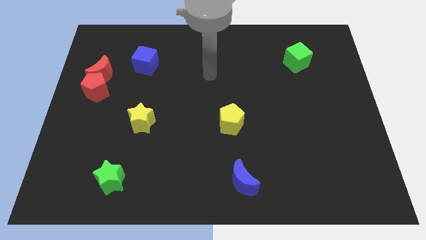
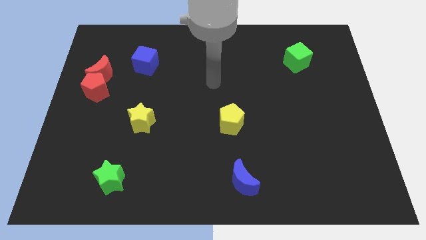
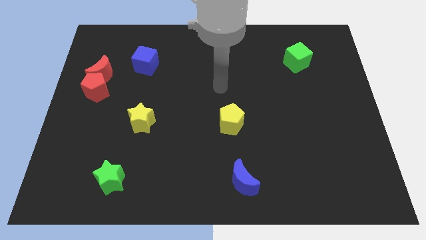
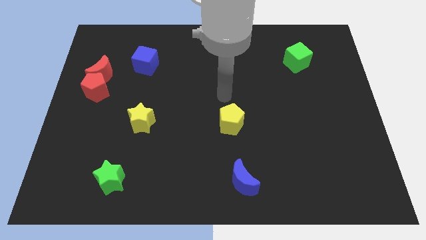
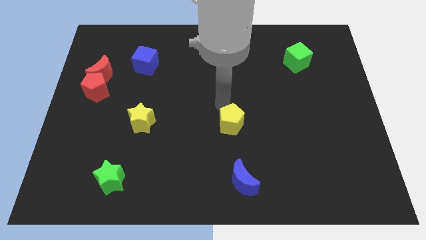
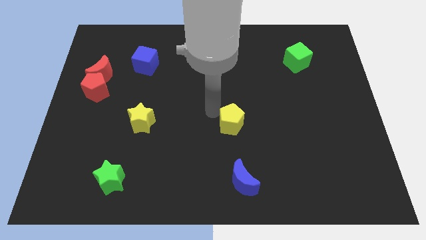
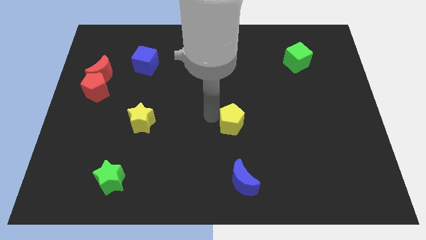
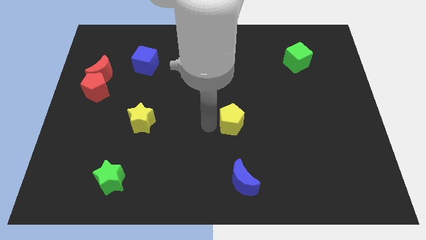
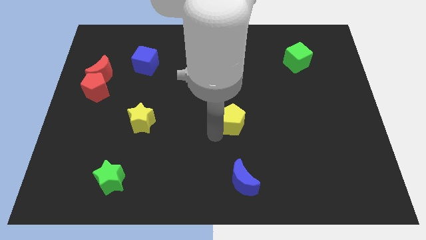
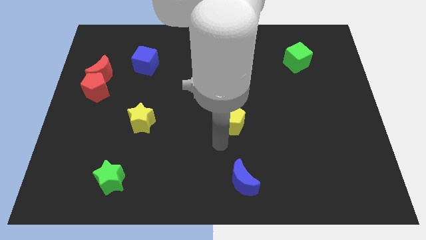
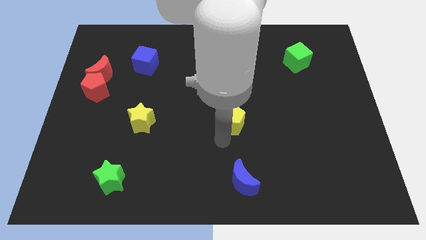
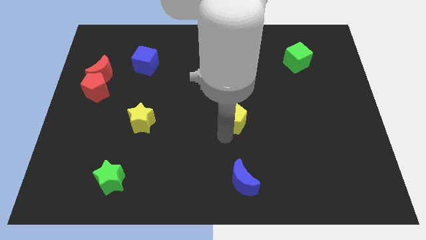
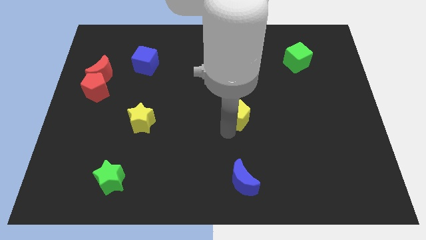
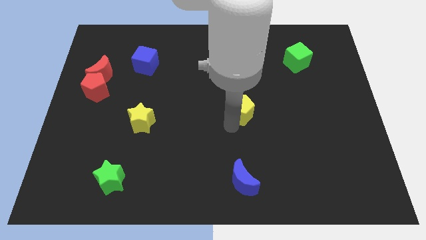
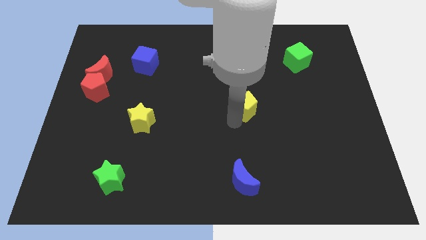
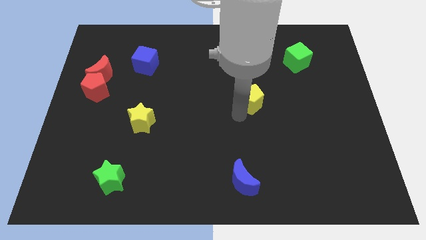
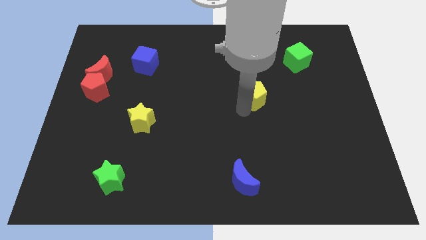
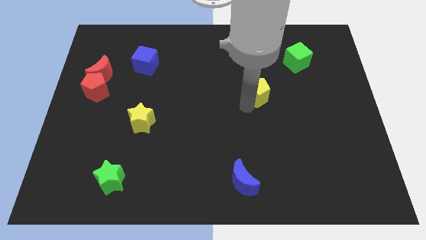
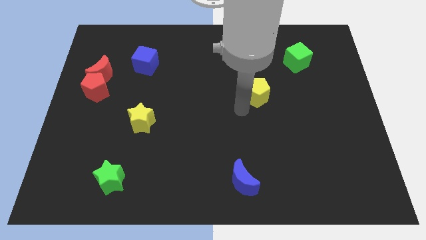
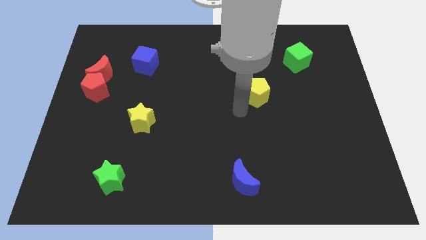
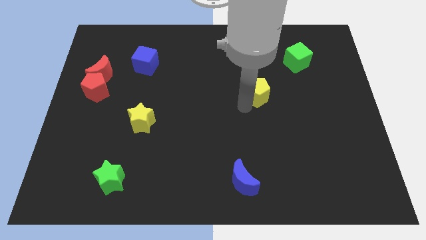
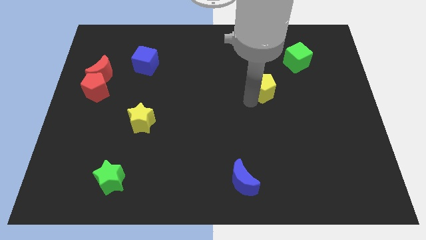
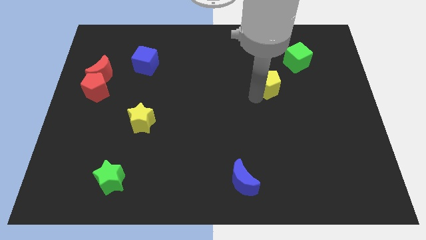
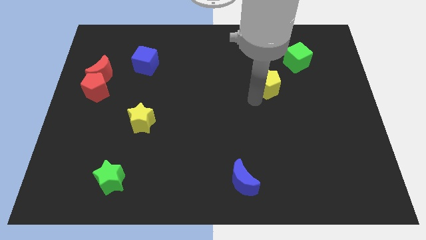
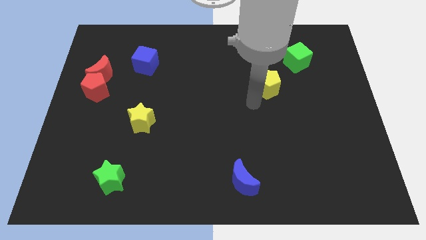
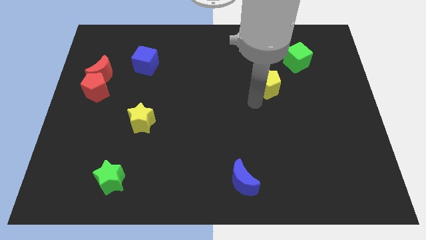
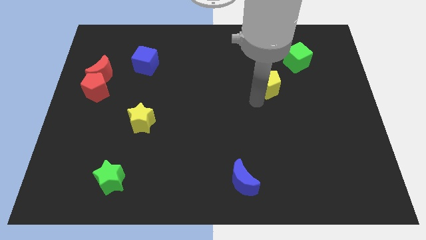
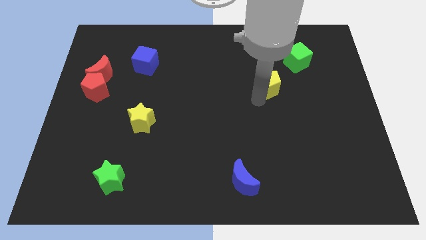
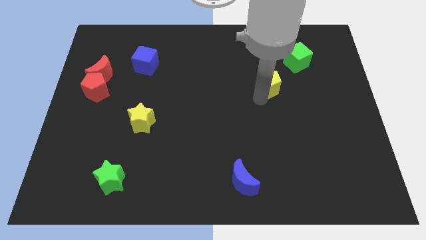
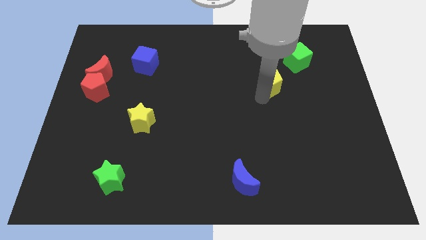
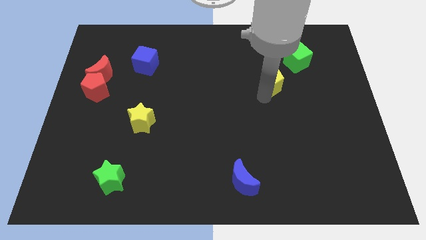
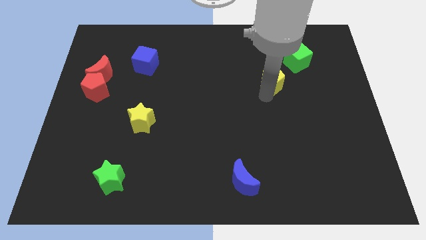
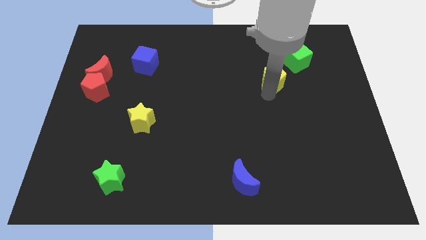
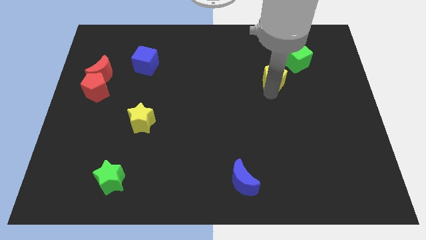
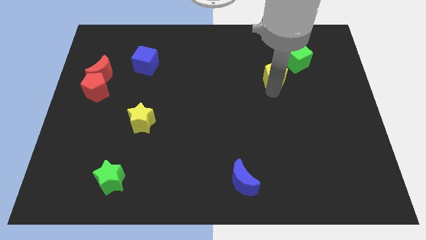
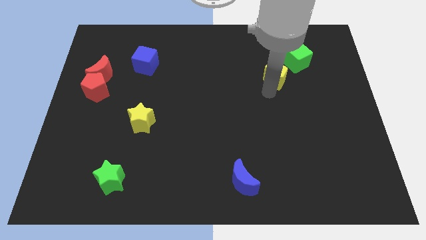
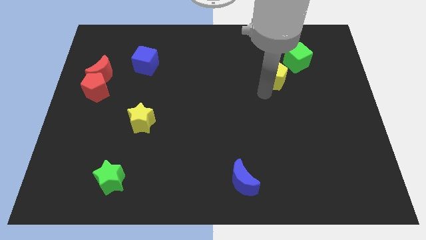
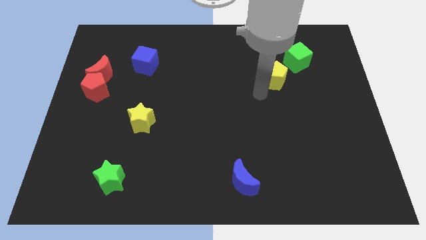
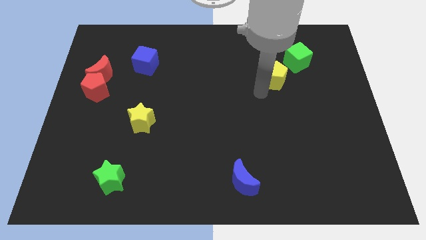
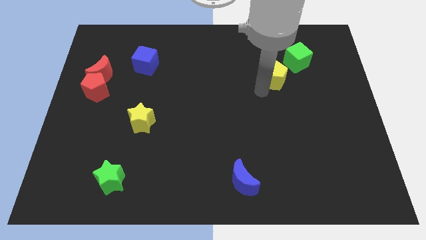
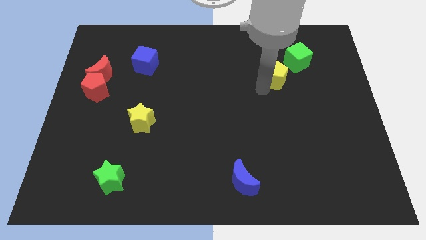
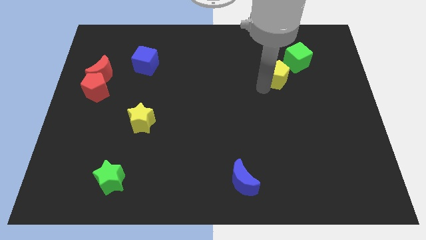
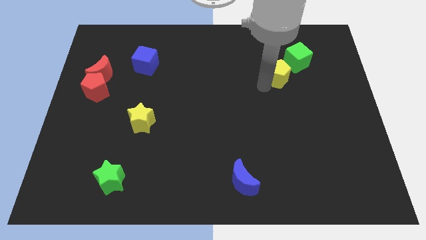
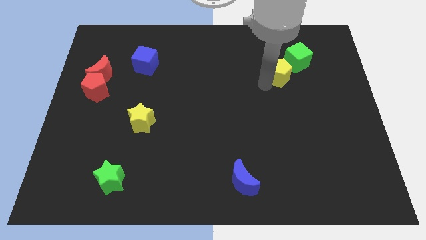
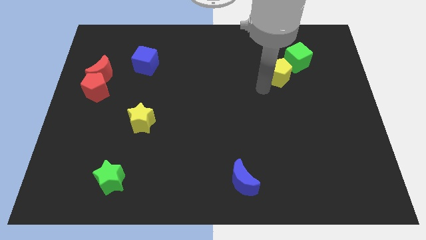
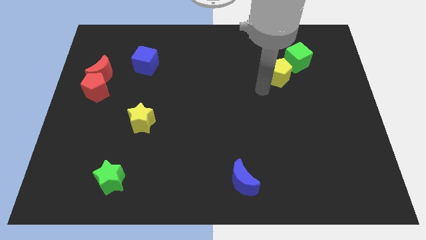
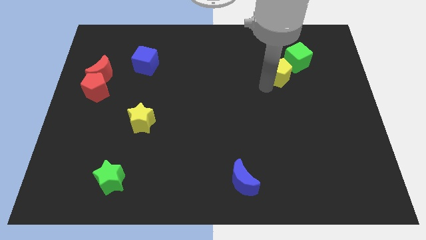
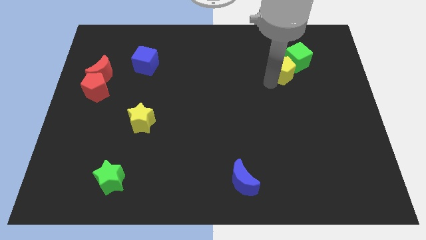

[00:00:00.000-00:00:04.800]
push the yellow pentagon towards the green cube

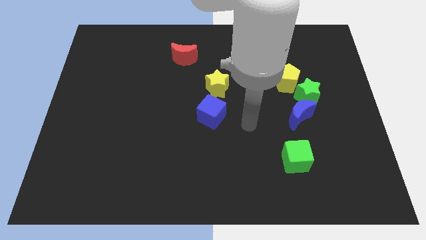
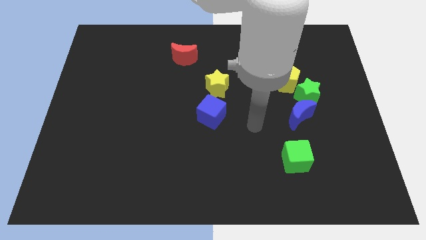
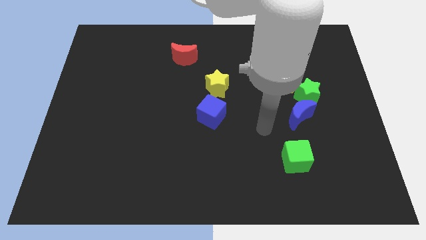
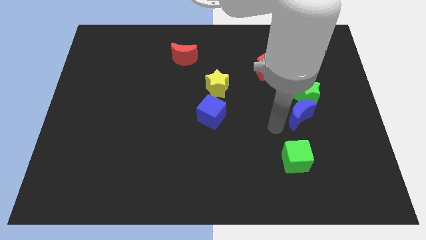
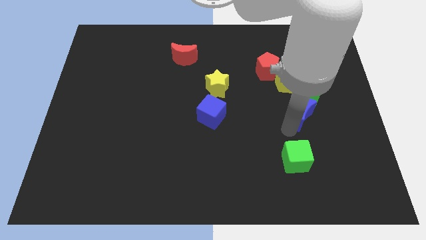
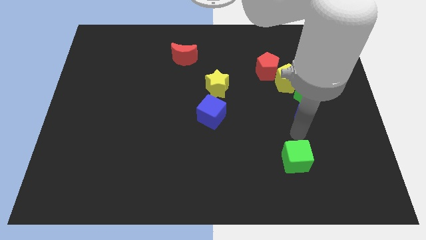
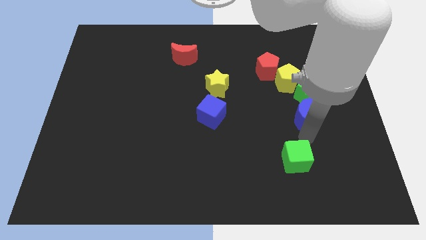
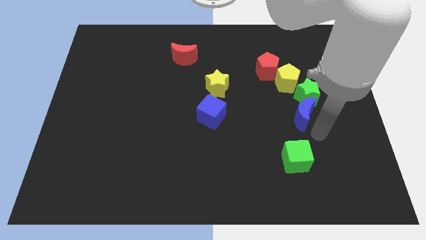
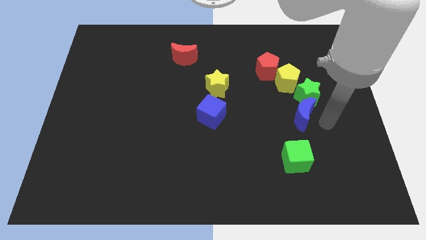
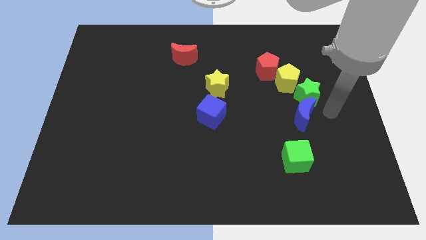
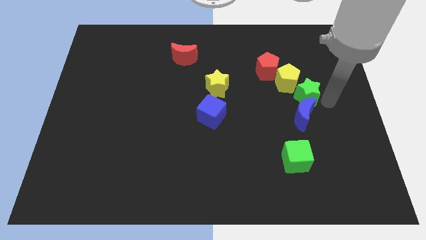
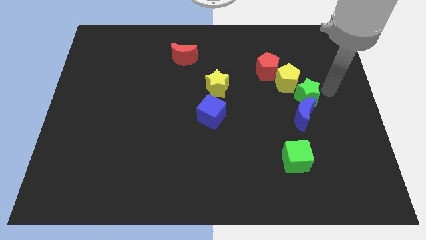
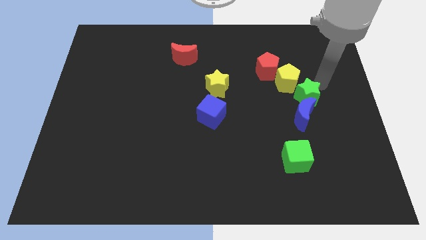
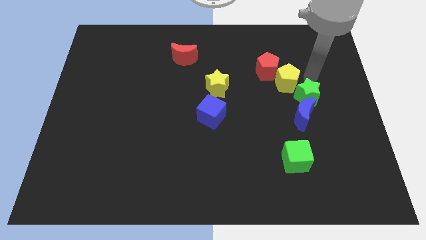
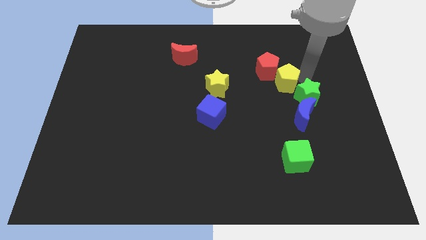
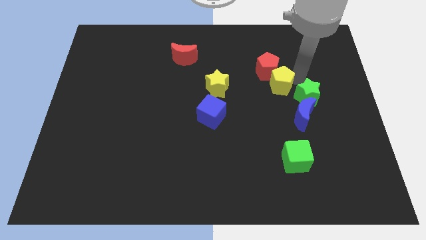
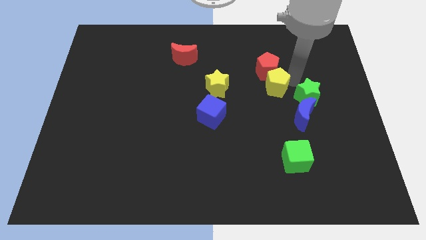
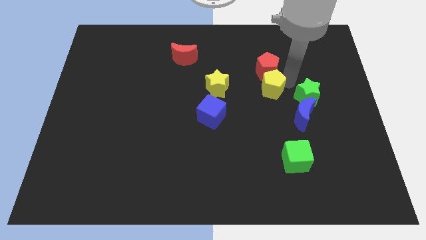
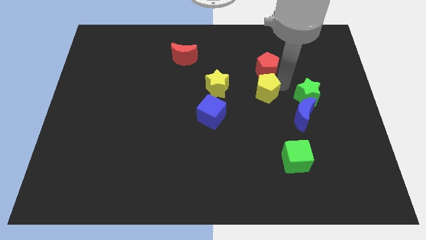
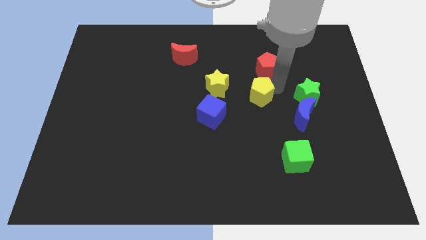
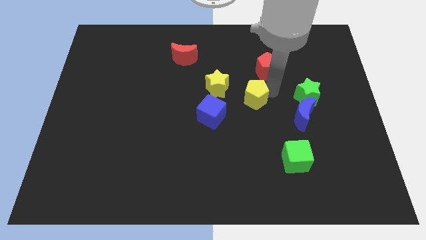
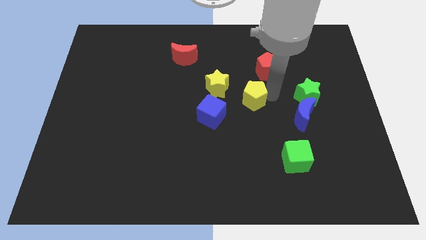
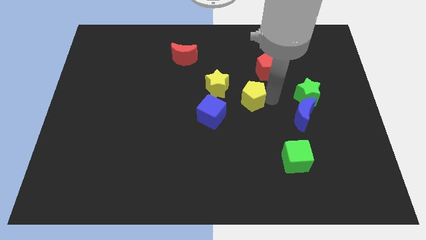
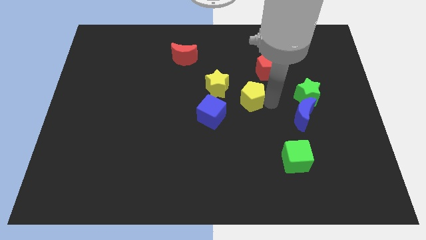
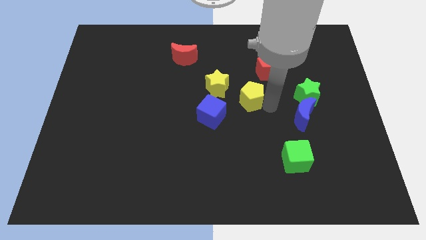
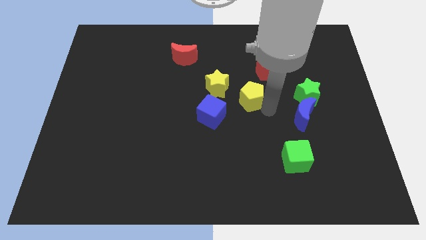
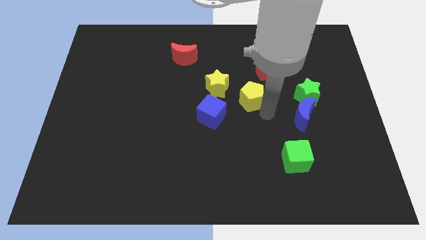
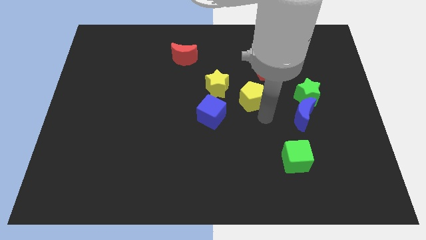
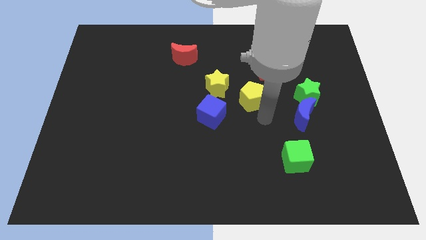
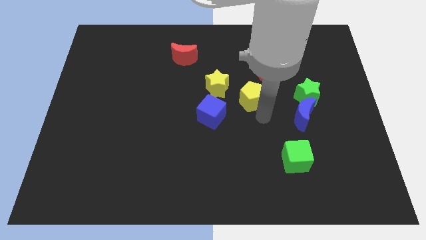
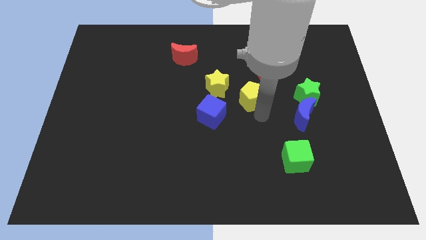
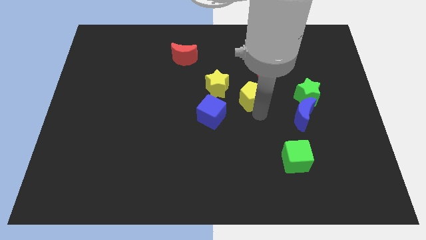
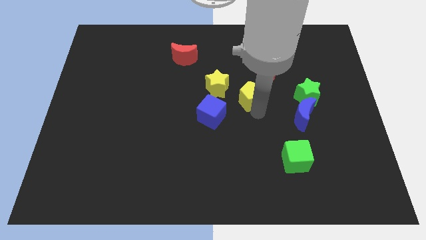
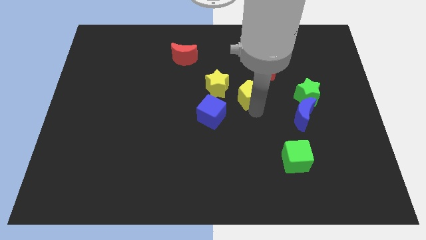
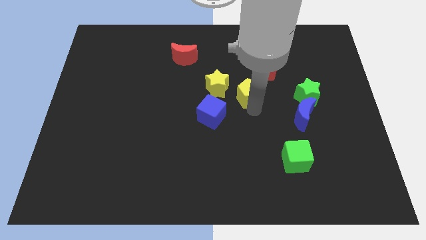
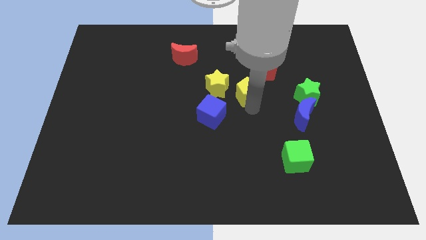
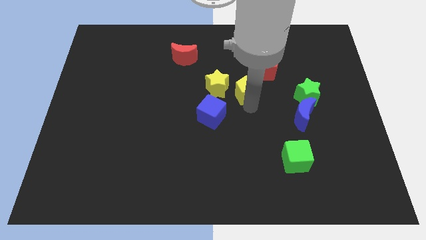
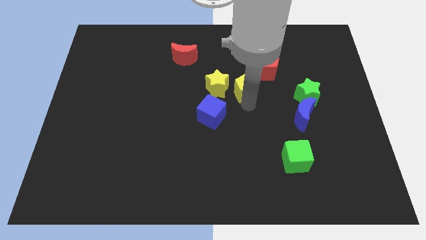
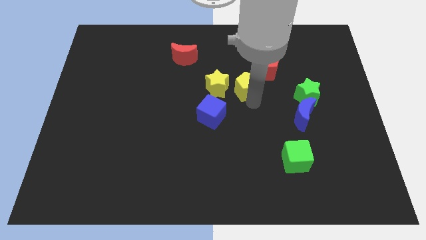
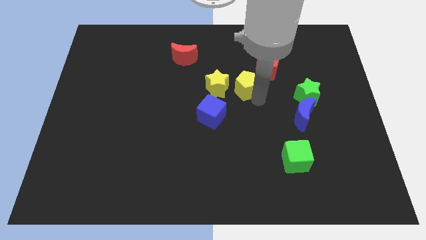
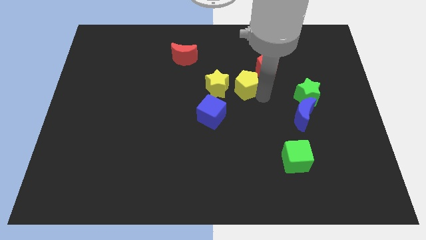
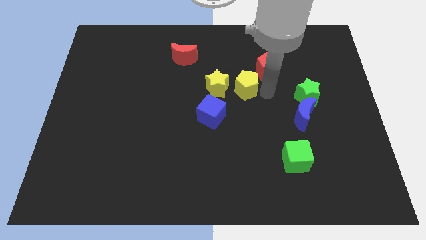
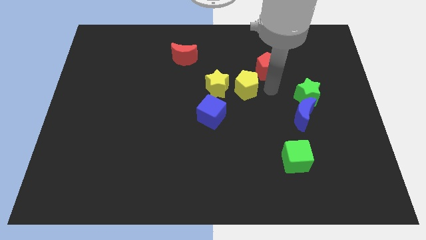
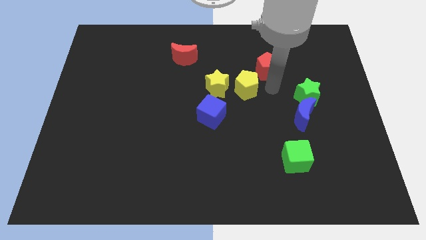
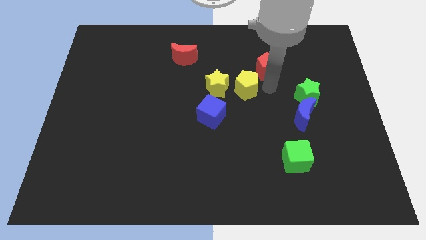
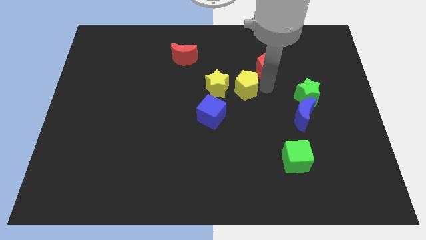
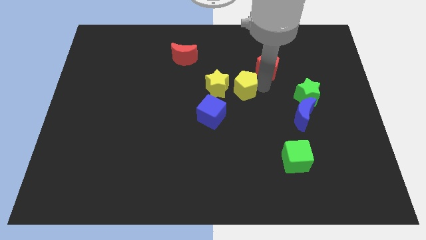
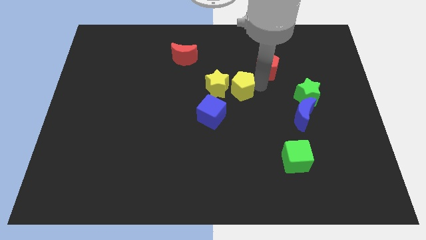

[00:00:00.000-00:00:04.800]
move the yellow pentagon next to the yellow star
